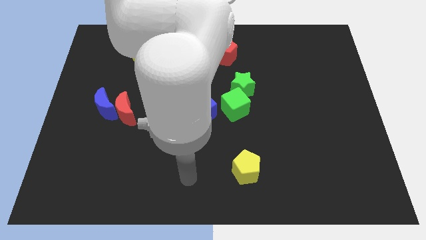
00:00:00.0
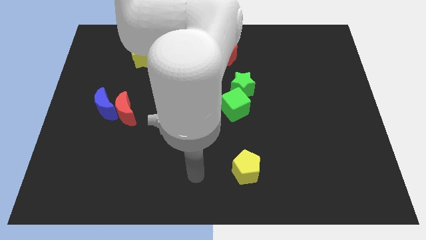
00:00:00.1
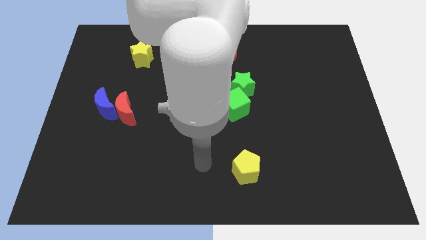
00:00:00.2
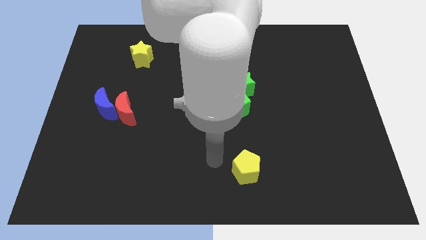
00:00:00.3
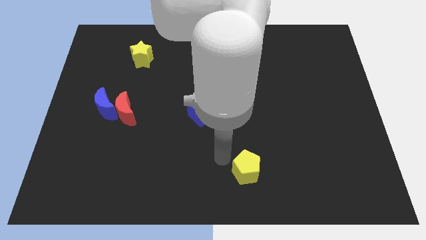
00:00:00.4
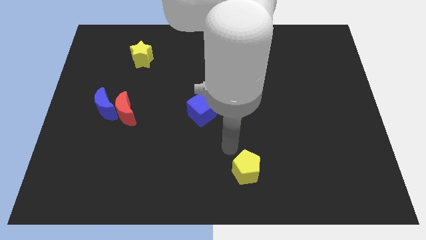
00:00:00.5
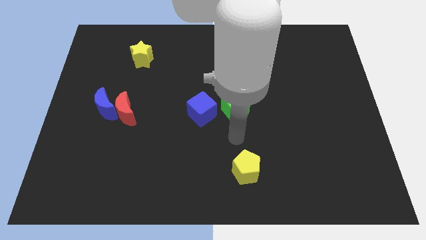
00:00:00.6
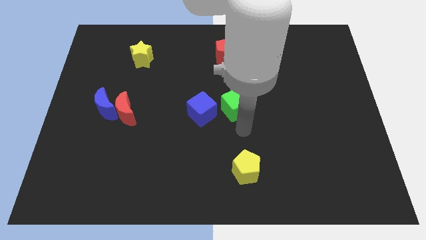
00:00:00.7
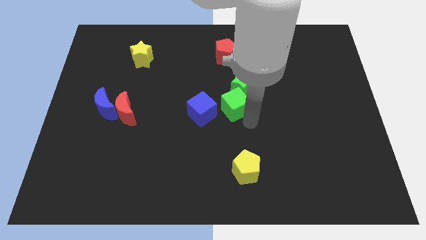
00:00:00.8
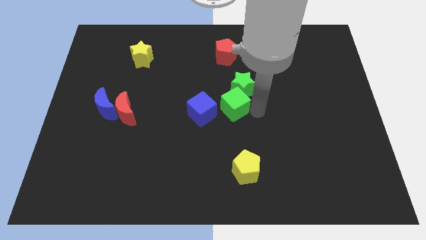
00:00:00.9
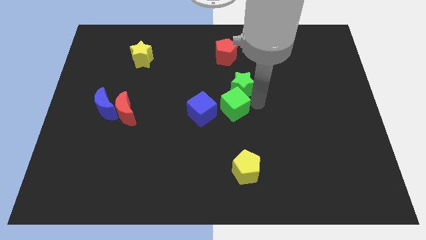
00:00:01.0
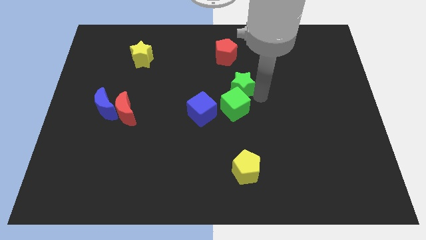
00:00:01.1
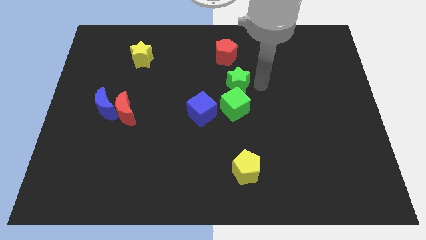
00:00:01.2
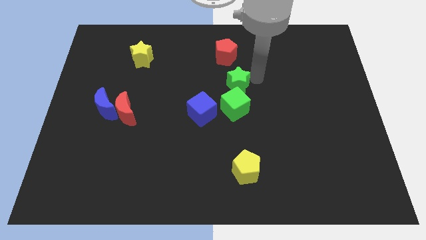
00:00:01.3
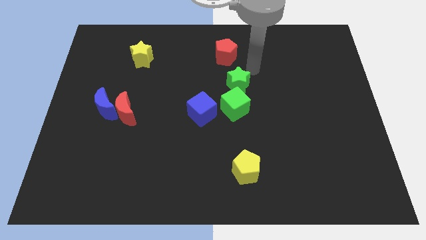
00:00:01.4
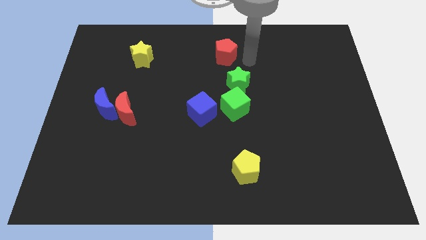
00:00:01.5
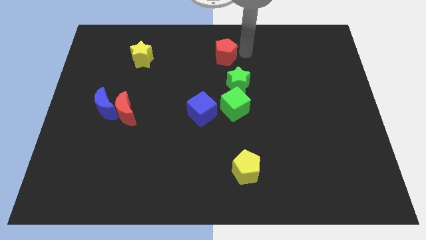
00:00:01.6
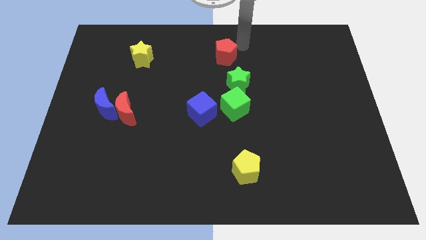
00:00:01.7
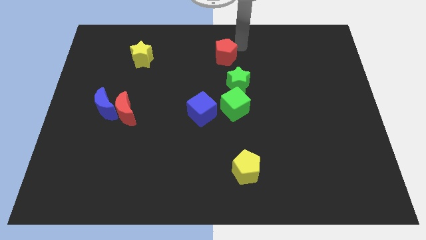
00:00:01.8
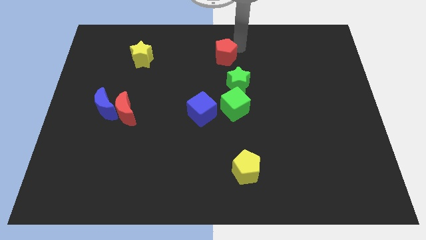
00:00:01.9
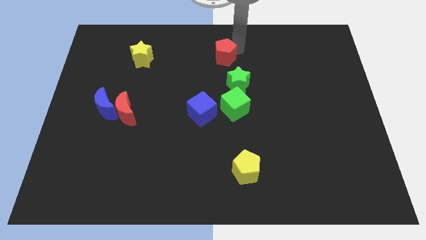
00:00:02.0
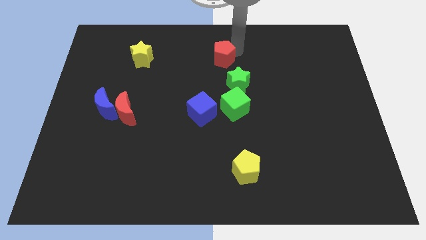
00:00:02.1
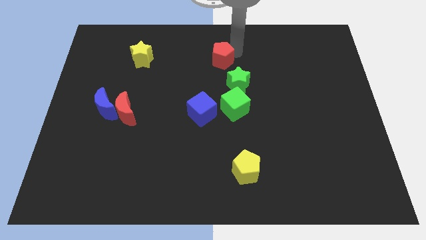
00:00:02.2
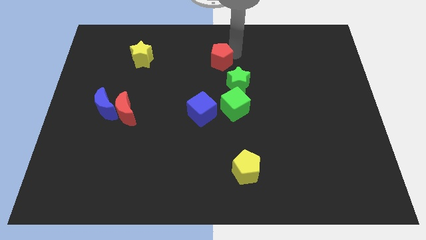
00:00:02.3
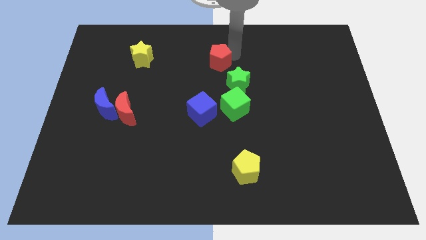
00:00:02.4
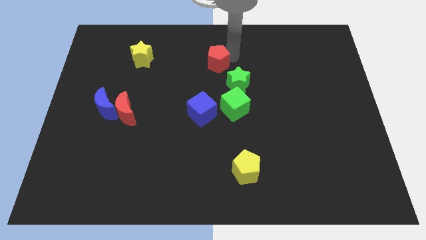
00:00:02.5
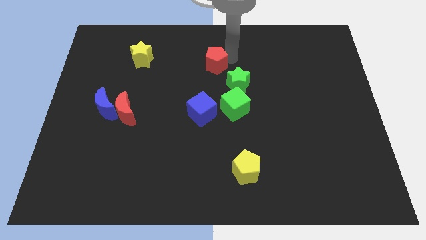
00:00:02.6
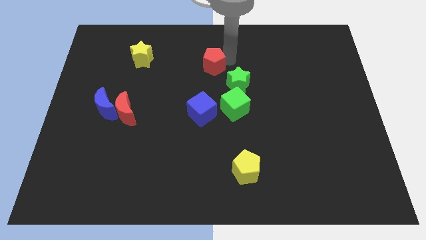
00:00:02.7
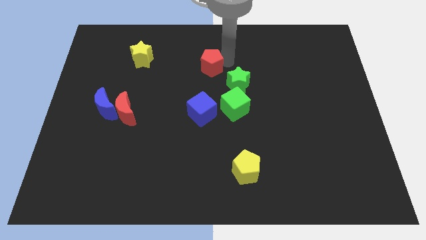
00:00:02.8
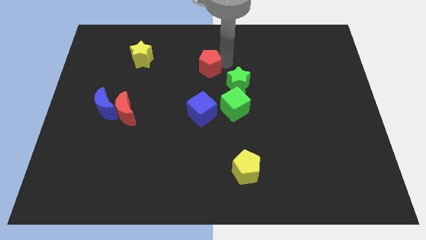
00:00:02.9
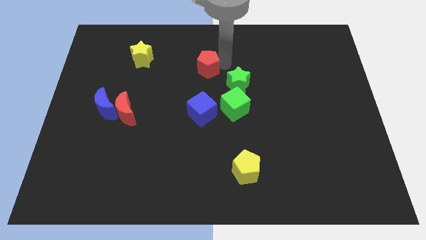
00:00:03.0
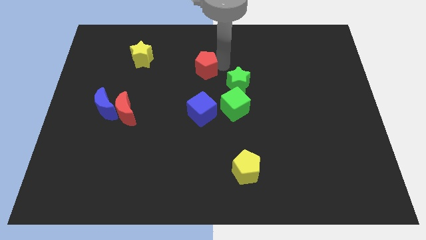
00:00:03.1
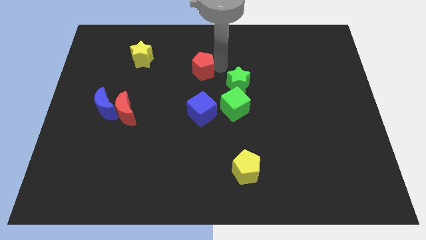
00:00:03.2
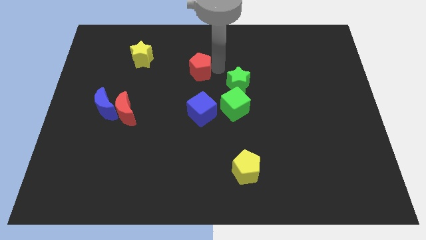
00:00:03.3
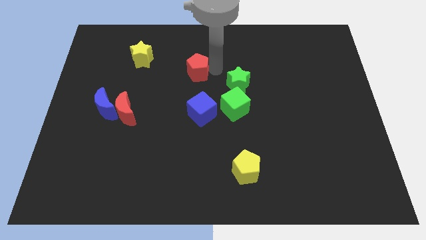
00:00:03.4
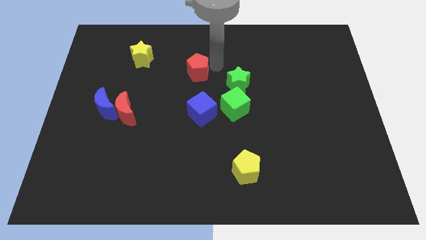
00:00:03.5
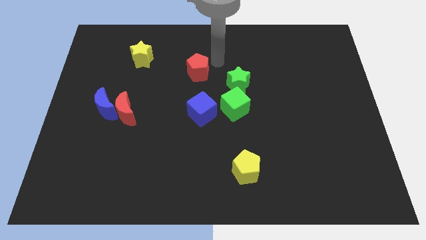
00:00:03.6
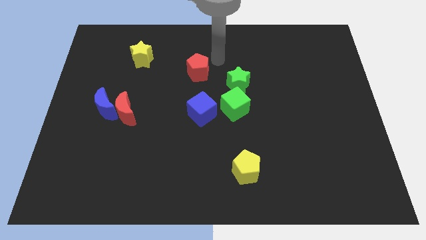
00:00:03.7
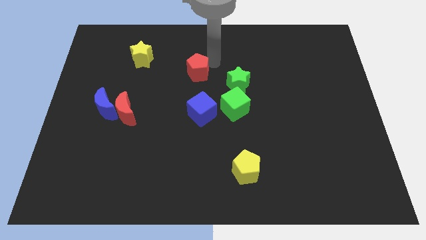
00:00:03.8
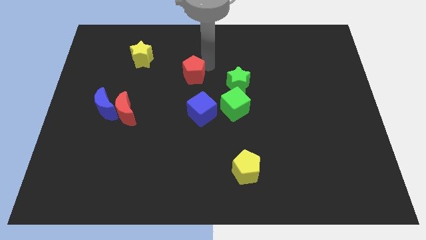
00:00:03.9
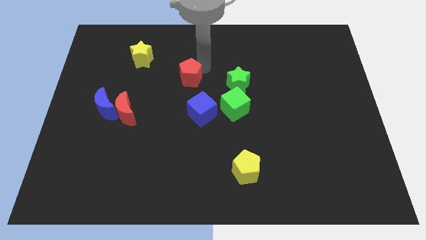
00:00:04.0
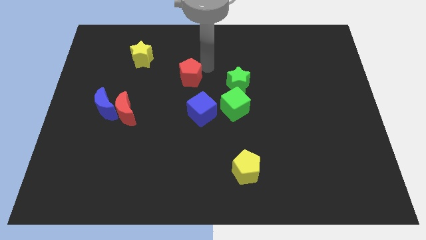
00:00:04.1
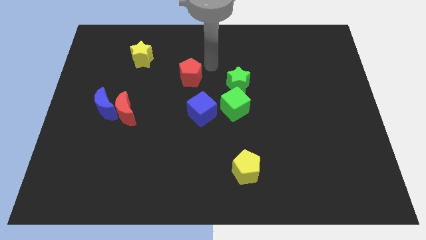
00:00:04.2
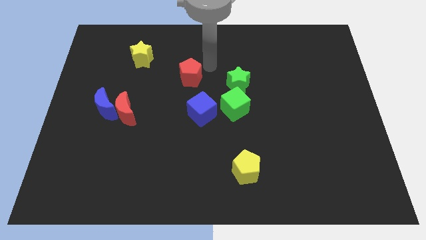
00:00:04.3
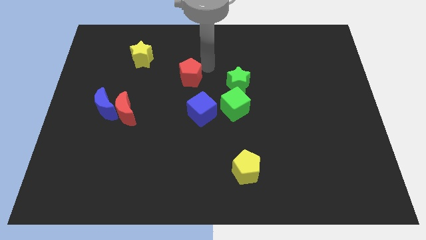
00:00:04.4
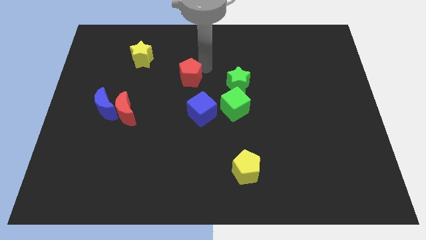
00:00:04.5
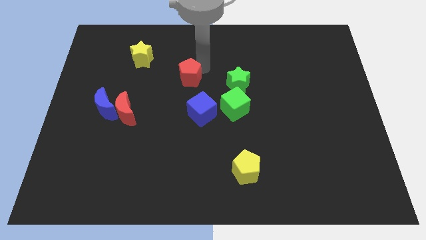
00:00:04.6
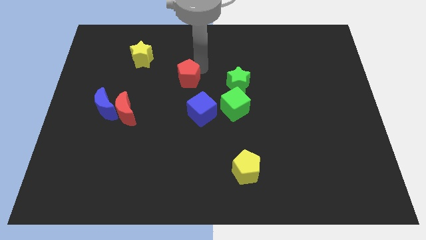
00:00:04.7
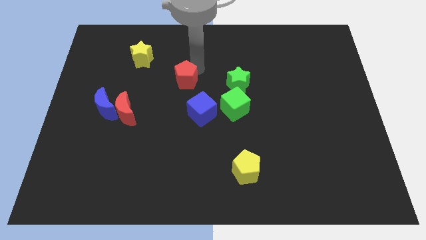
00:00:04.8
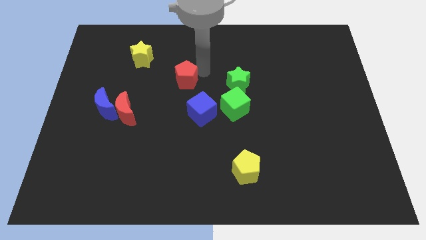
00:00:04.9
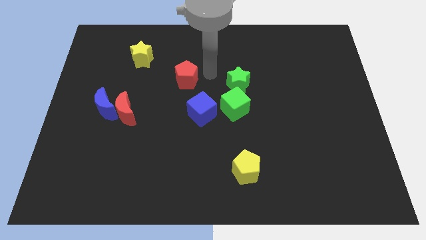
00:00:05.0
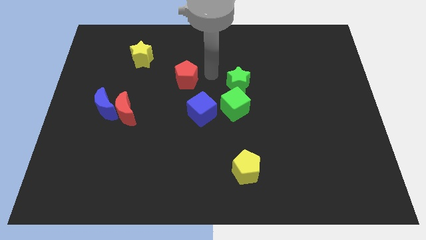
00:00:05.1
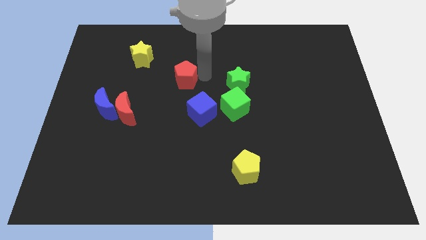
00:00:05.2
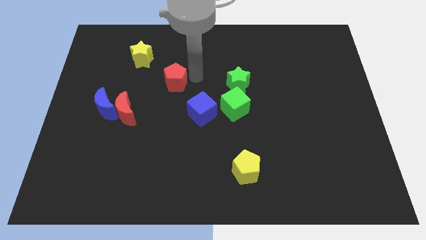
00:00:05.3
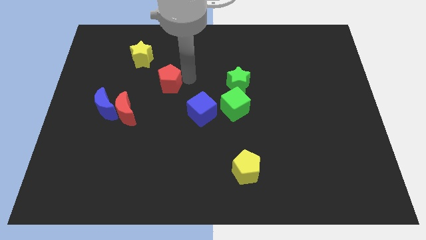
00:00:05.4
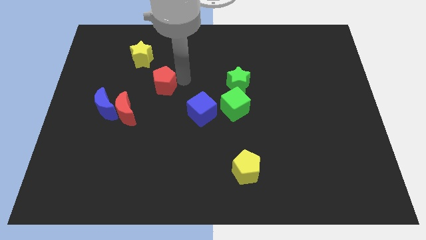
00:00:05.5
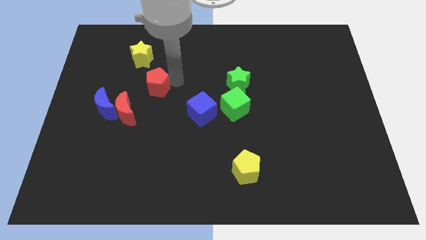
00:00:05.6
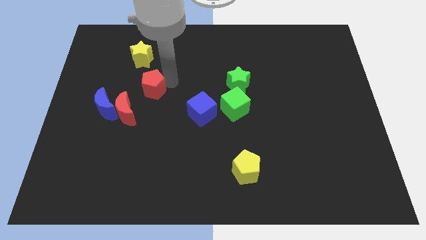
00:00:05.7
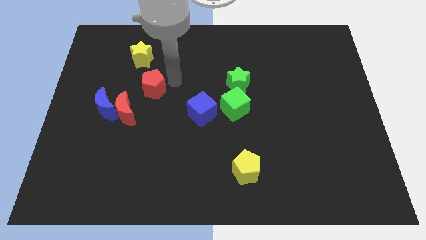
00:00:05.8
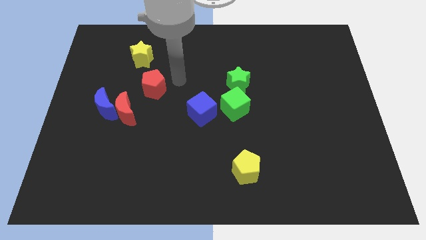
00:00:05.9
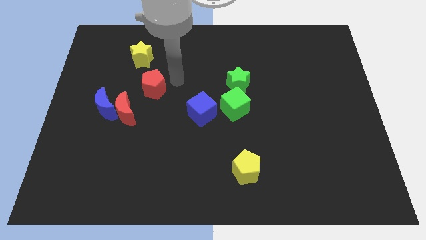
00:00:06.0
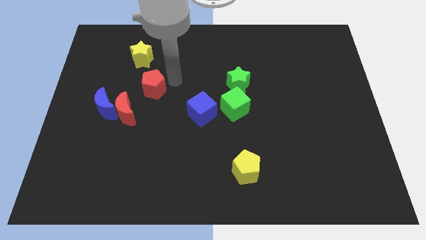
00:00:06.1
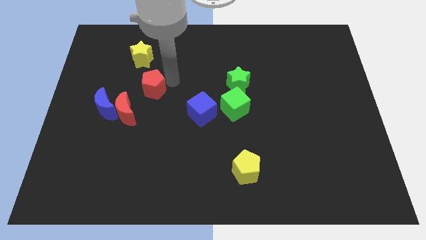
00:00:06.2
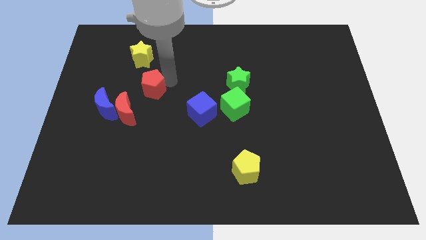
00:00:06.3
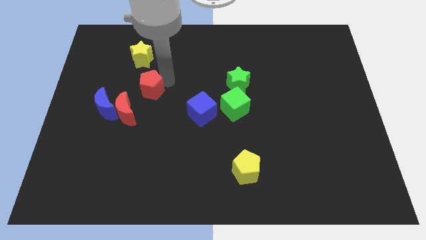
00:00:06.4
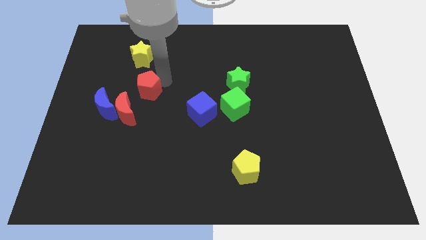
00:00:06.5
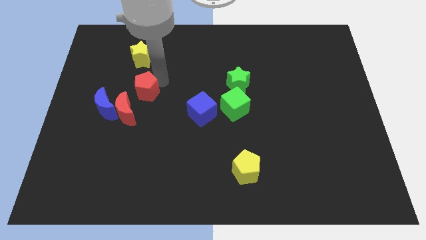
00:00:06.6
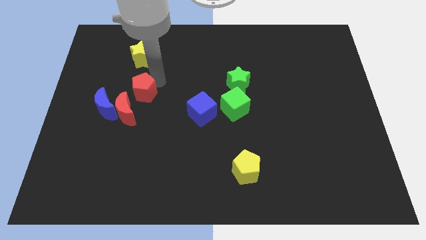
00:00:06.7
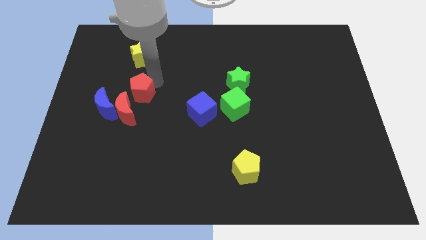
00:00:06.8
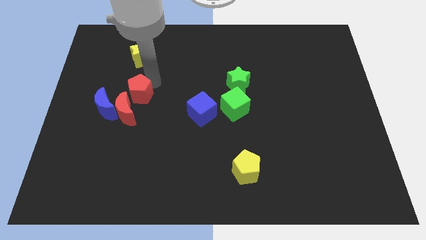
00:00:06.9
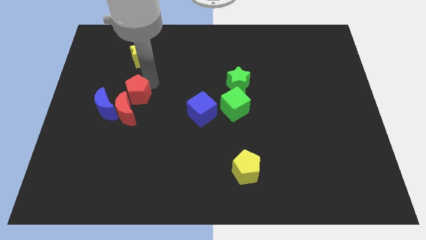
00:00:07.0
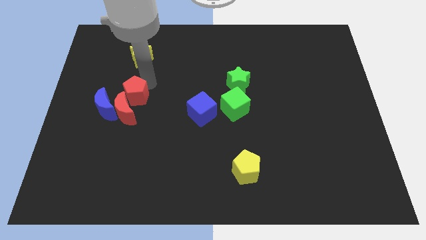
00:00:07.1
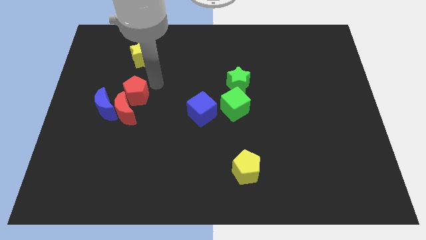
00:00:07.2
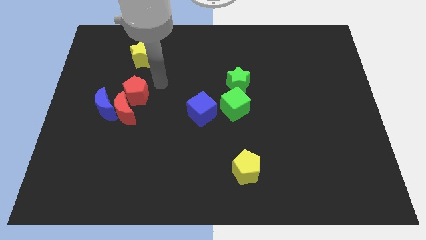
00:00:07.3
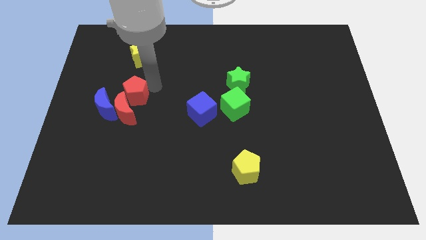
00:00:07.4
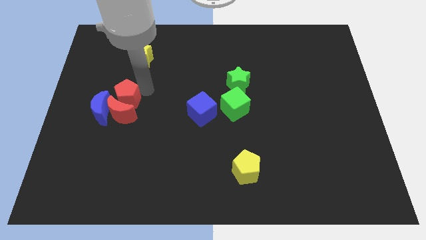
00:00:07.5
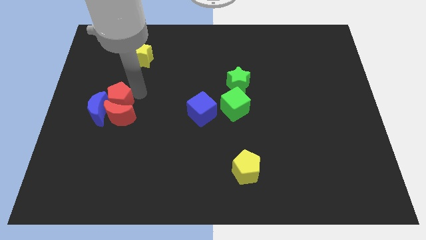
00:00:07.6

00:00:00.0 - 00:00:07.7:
put the red pentagon to the blue moon
